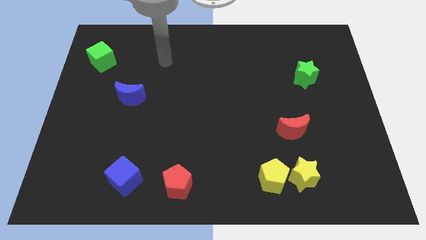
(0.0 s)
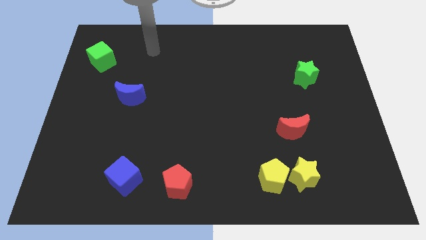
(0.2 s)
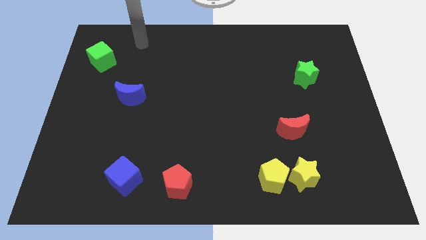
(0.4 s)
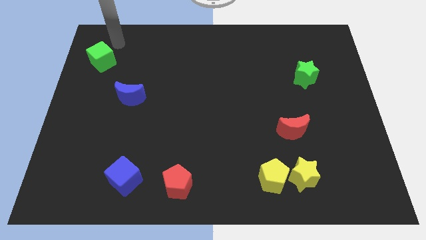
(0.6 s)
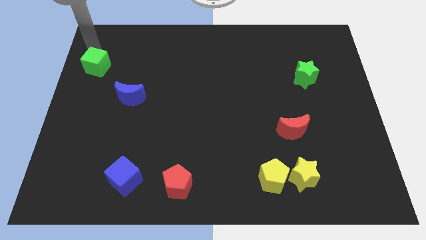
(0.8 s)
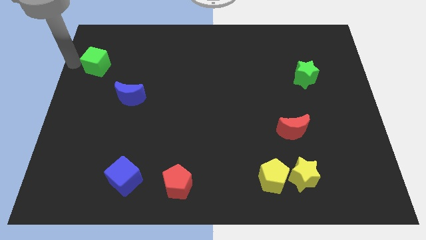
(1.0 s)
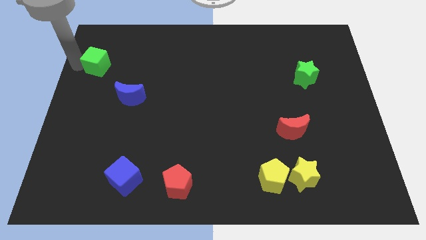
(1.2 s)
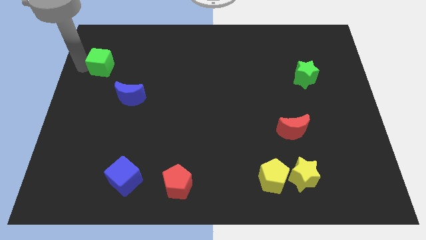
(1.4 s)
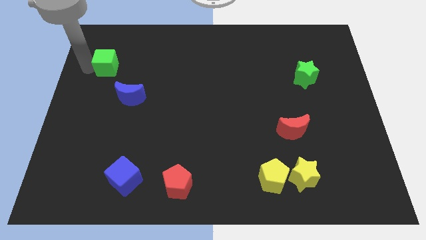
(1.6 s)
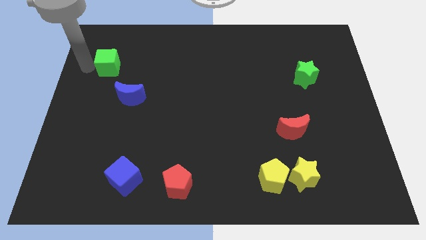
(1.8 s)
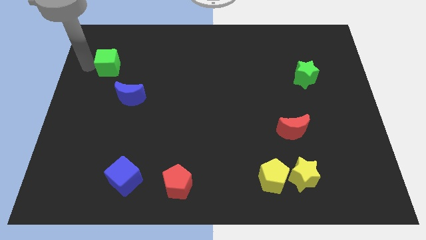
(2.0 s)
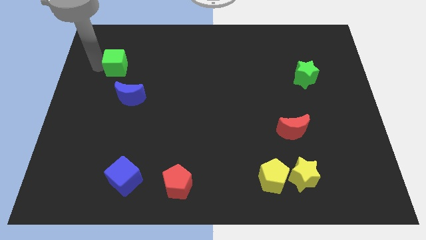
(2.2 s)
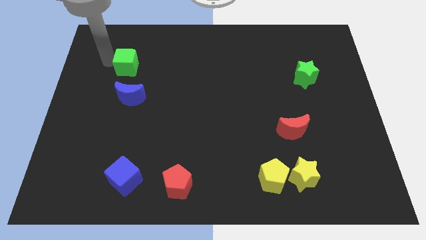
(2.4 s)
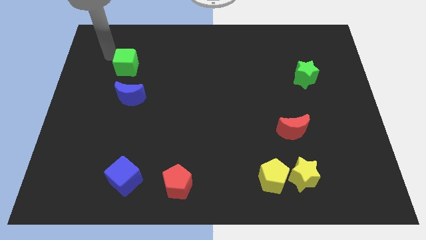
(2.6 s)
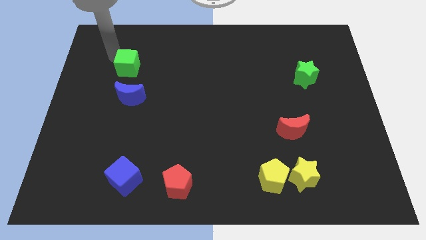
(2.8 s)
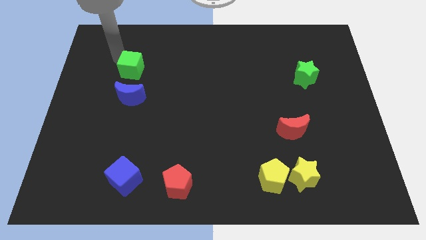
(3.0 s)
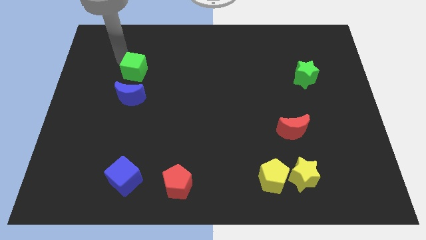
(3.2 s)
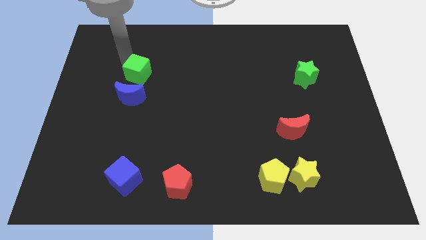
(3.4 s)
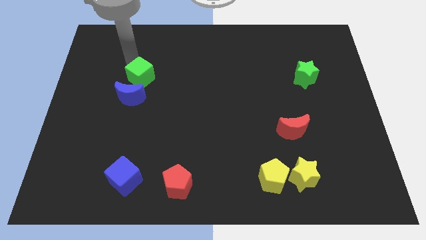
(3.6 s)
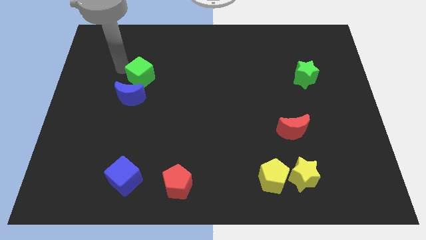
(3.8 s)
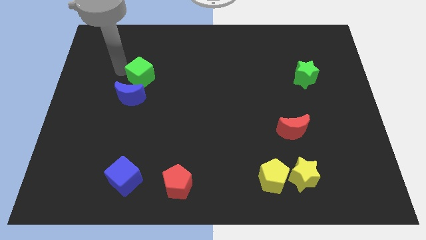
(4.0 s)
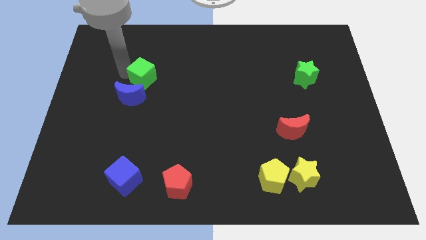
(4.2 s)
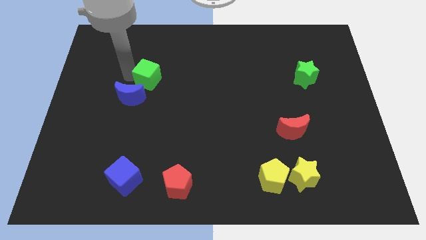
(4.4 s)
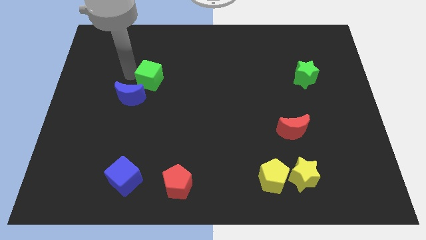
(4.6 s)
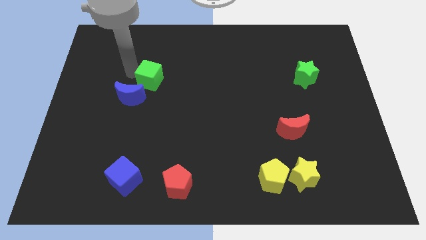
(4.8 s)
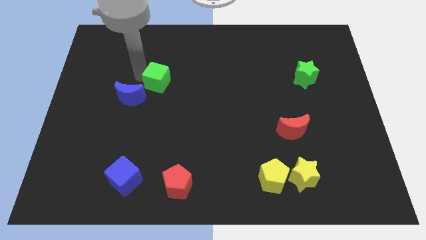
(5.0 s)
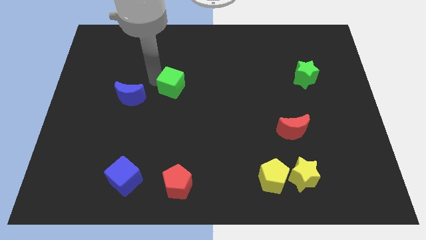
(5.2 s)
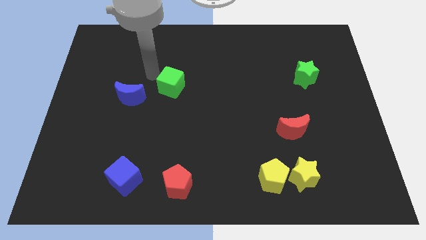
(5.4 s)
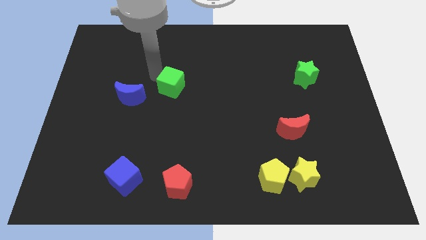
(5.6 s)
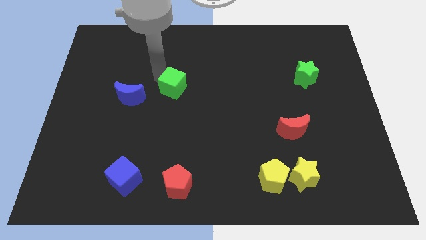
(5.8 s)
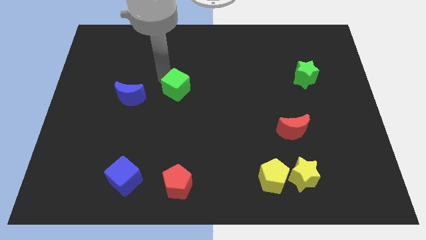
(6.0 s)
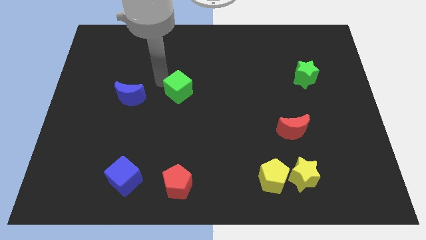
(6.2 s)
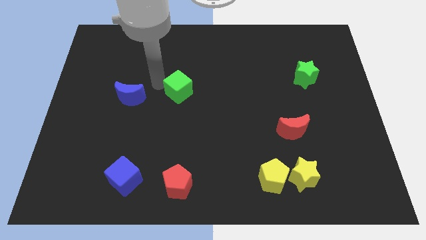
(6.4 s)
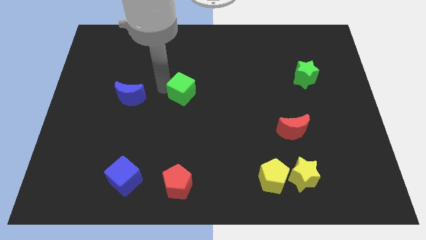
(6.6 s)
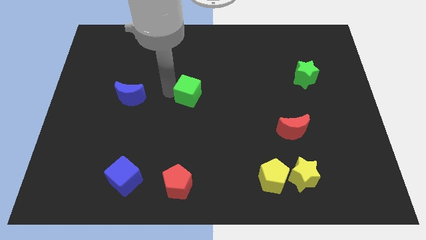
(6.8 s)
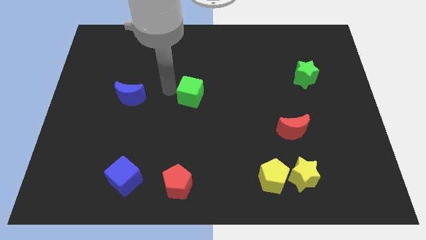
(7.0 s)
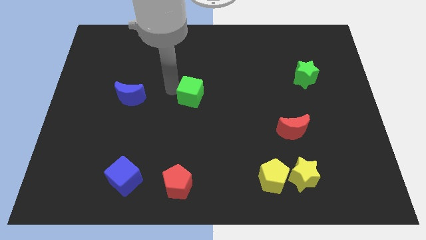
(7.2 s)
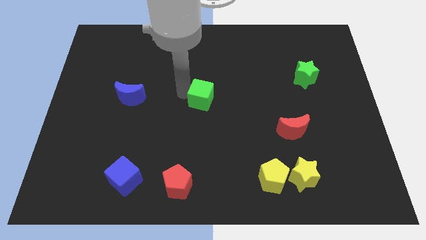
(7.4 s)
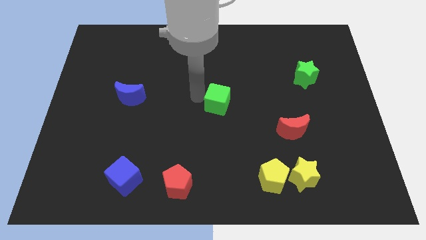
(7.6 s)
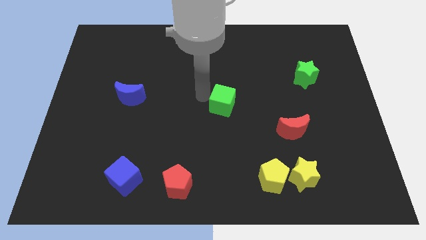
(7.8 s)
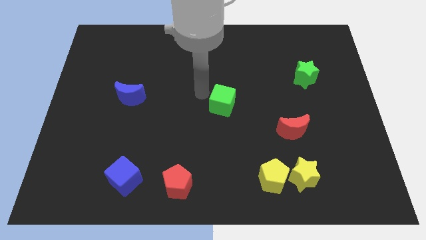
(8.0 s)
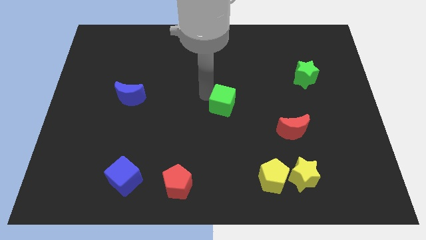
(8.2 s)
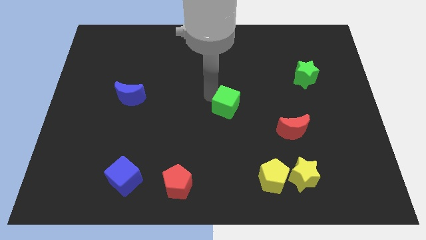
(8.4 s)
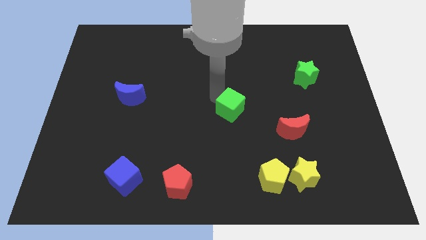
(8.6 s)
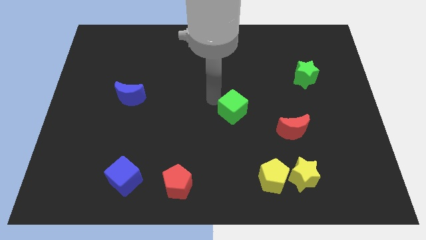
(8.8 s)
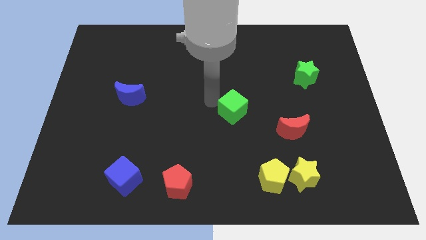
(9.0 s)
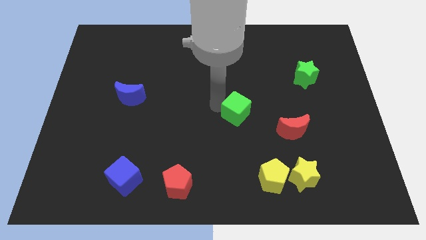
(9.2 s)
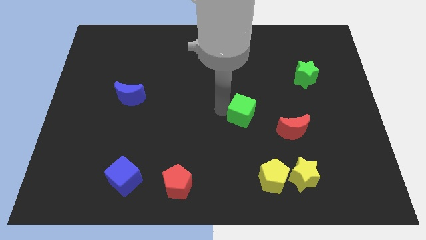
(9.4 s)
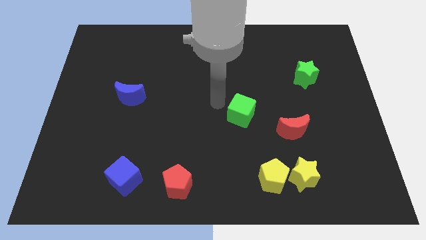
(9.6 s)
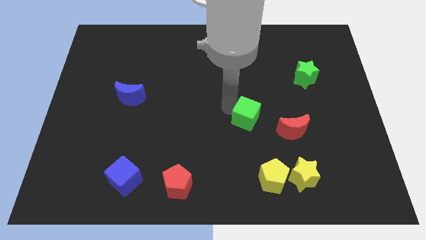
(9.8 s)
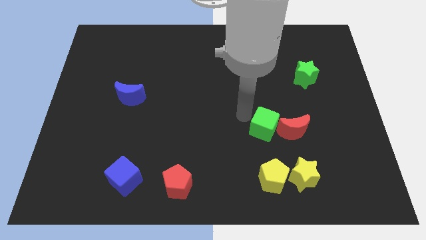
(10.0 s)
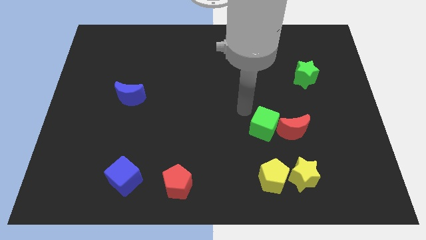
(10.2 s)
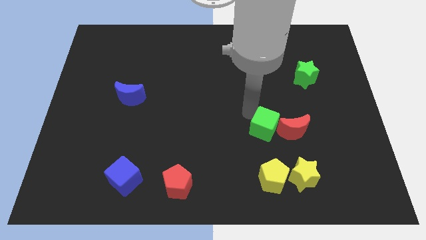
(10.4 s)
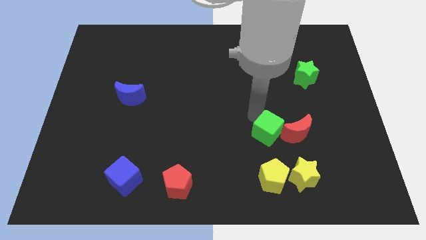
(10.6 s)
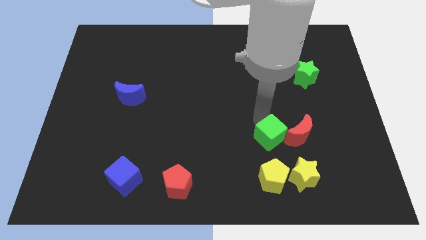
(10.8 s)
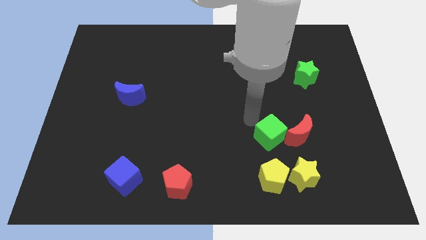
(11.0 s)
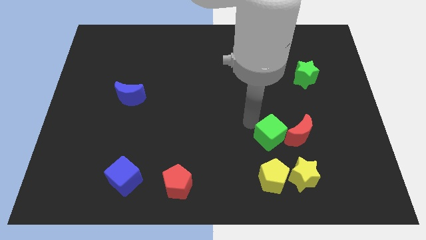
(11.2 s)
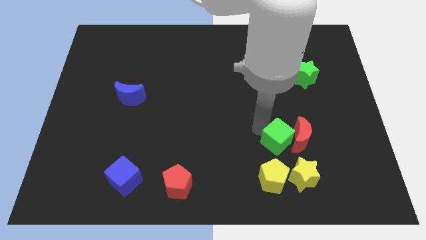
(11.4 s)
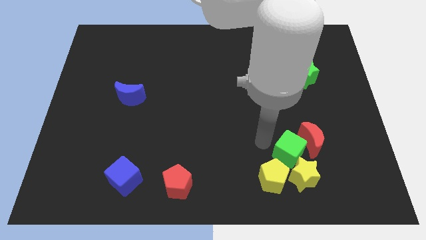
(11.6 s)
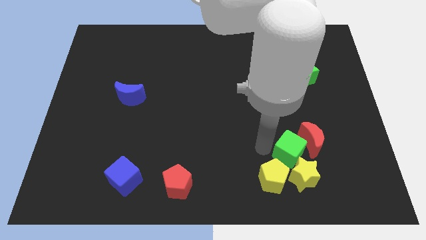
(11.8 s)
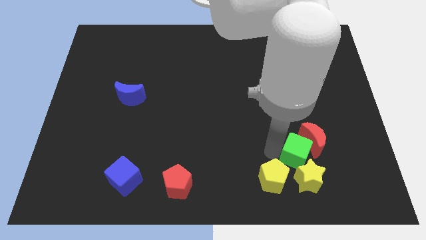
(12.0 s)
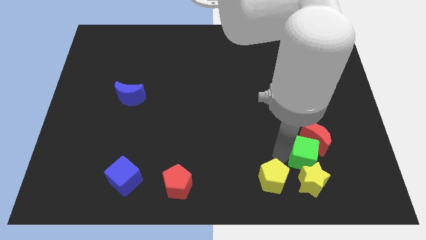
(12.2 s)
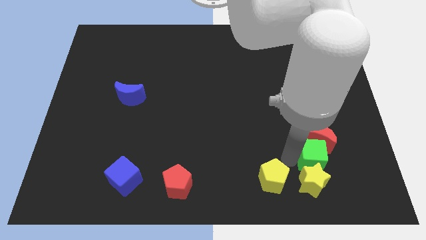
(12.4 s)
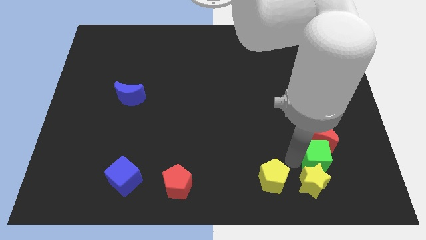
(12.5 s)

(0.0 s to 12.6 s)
slide the green cube to the bottom right of the red moon
